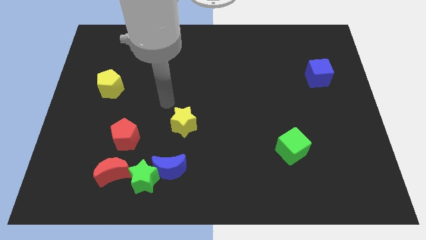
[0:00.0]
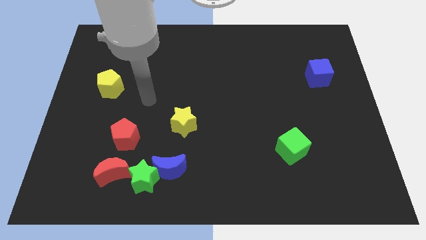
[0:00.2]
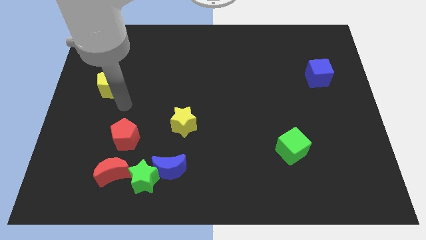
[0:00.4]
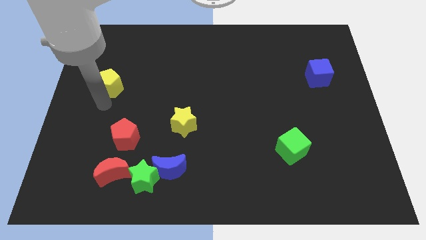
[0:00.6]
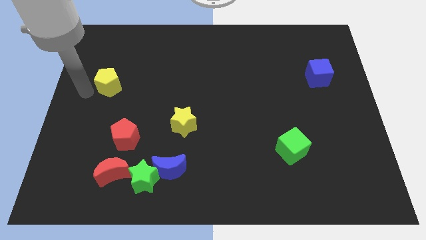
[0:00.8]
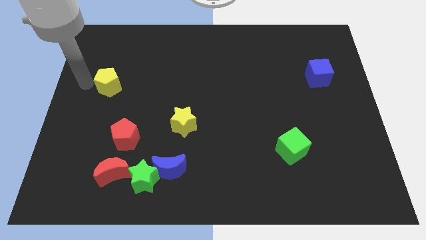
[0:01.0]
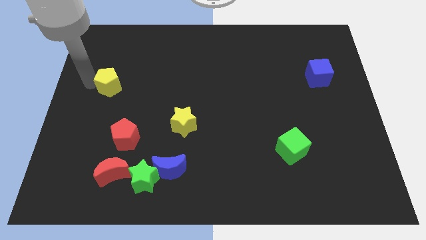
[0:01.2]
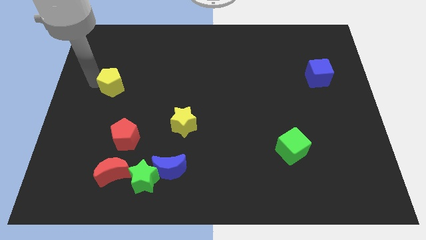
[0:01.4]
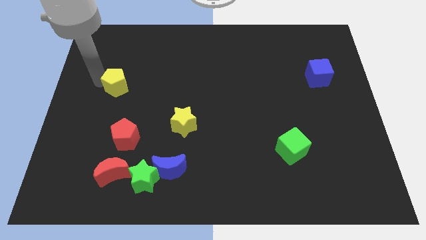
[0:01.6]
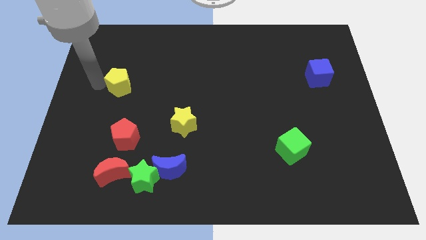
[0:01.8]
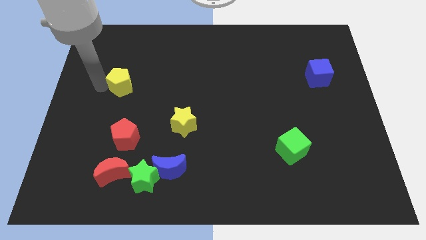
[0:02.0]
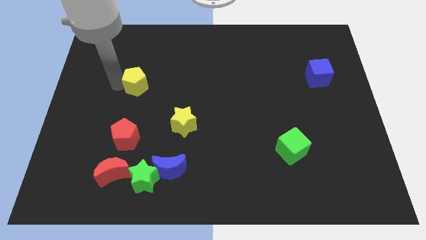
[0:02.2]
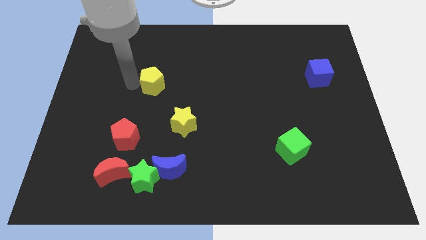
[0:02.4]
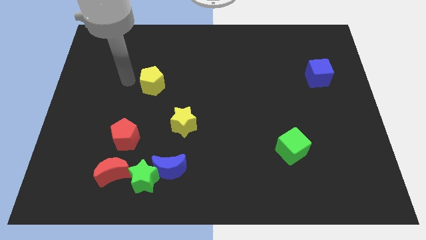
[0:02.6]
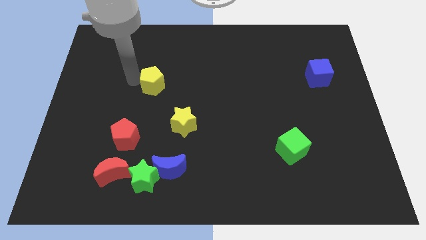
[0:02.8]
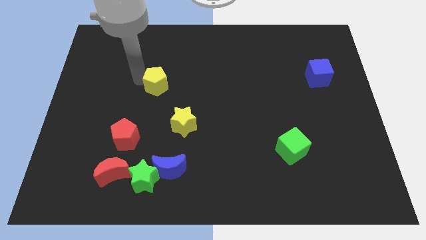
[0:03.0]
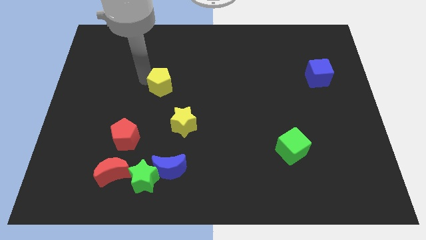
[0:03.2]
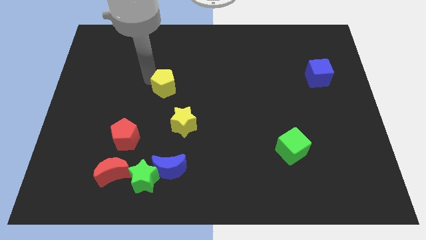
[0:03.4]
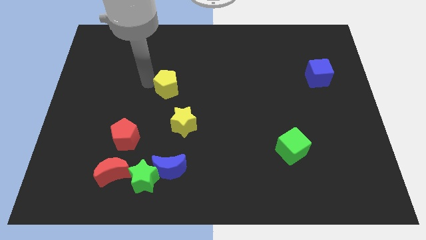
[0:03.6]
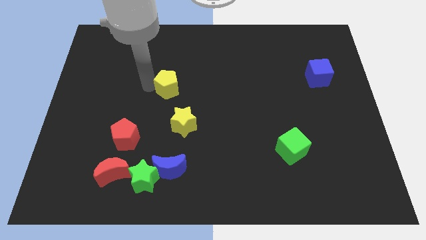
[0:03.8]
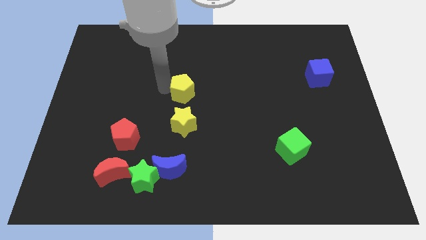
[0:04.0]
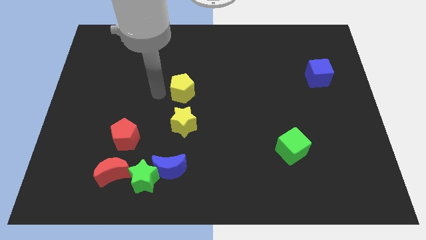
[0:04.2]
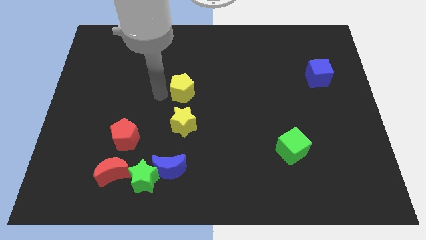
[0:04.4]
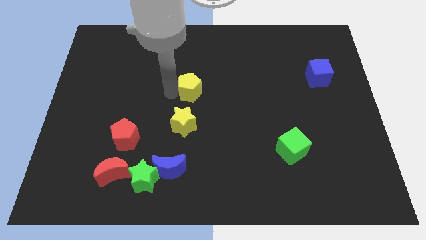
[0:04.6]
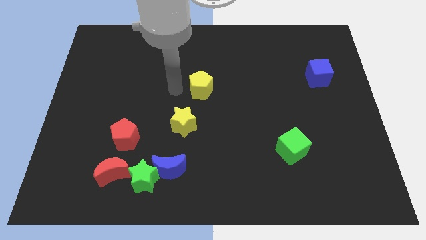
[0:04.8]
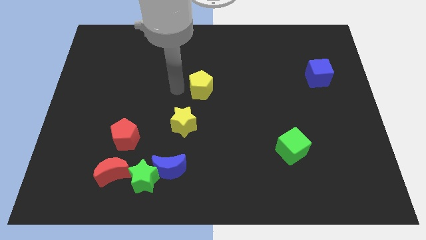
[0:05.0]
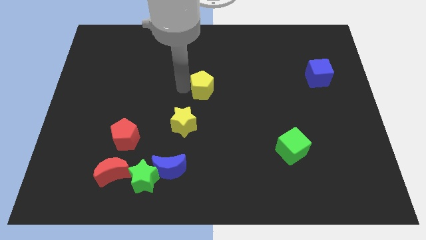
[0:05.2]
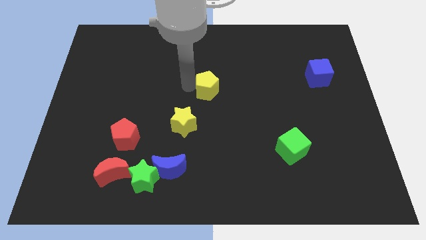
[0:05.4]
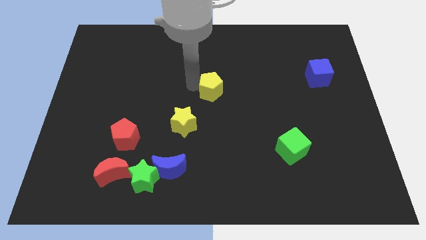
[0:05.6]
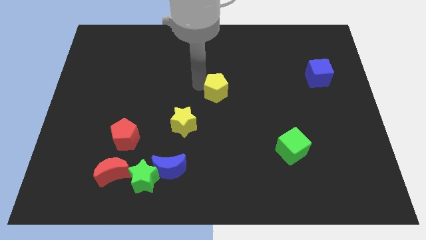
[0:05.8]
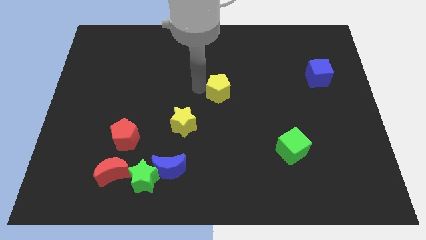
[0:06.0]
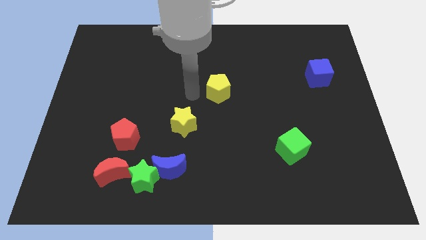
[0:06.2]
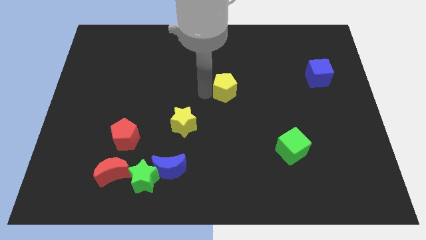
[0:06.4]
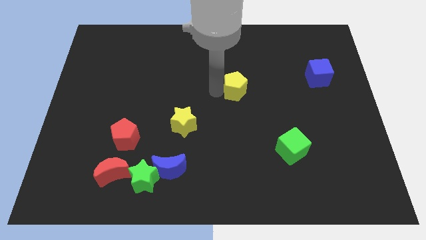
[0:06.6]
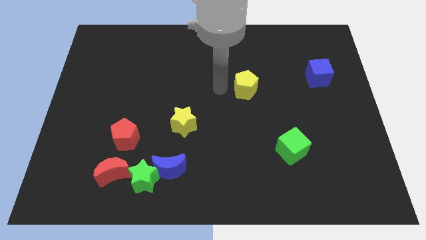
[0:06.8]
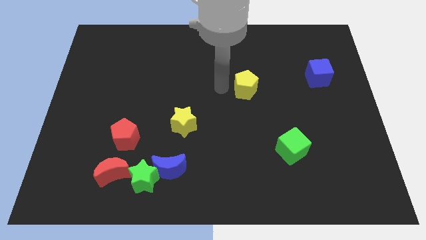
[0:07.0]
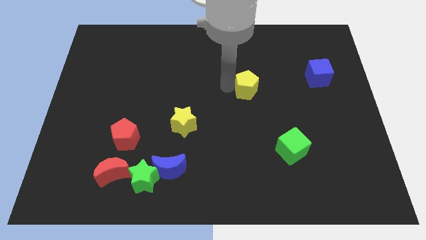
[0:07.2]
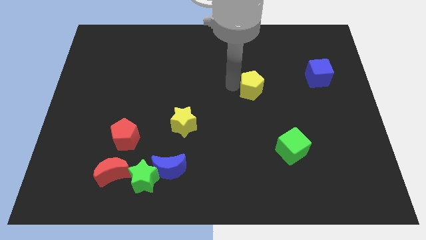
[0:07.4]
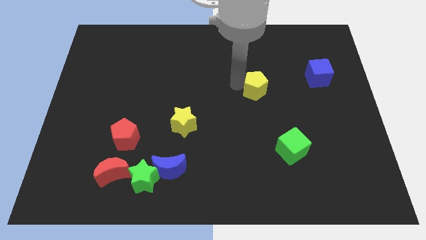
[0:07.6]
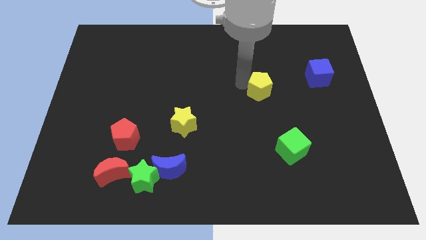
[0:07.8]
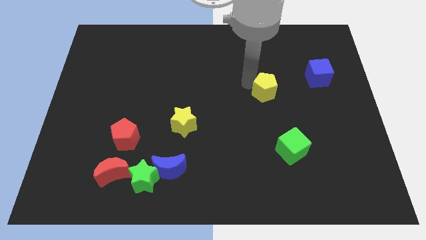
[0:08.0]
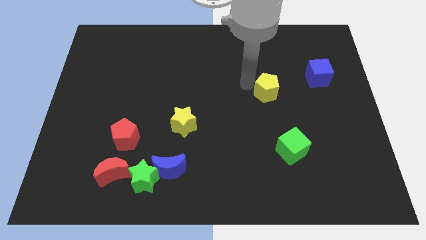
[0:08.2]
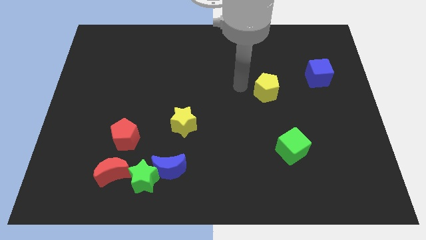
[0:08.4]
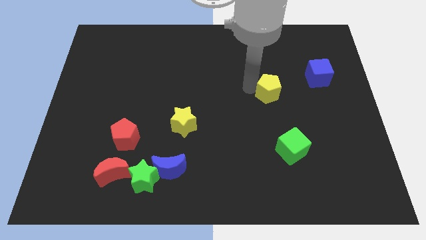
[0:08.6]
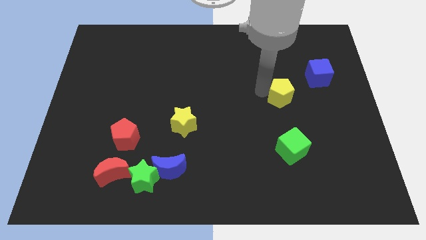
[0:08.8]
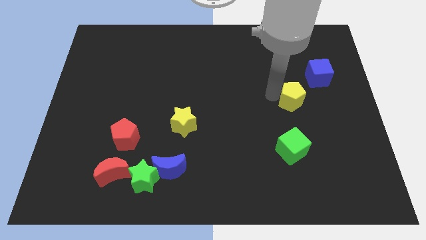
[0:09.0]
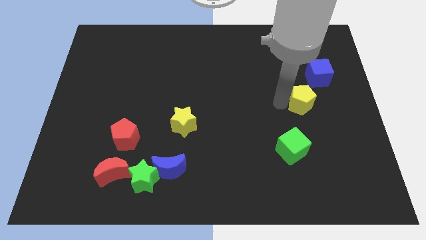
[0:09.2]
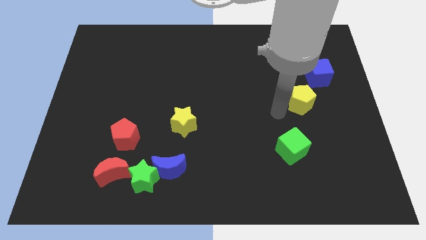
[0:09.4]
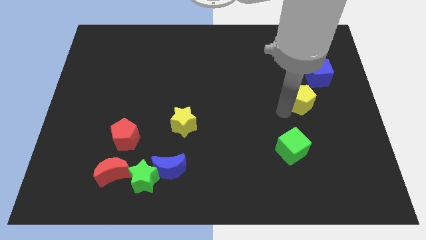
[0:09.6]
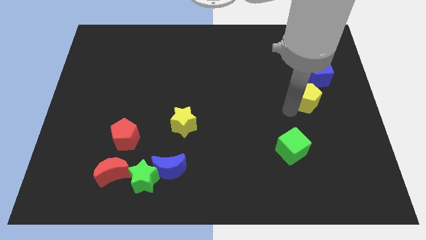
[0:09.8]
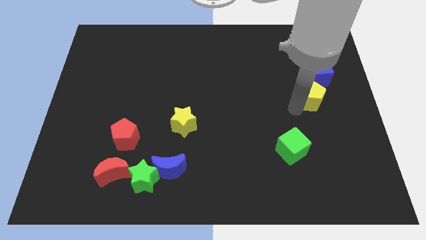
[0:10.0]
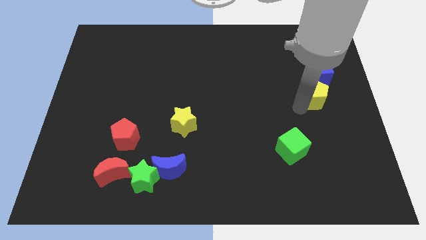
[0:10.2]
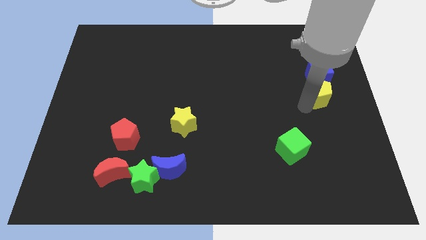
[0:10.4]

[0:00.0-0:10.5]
slide the yellow pentagon to the right side of the board

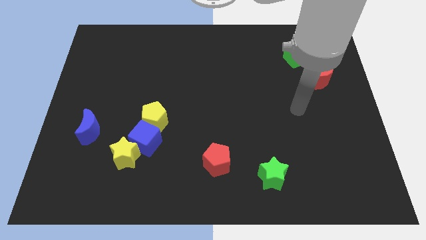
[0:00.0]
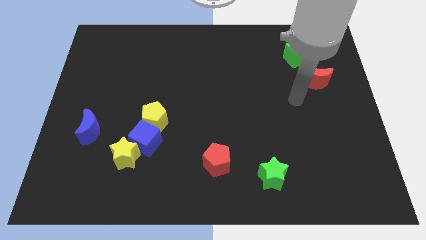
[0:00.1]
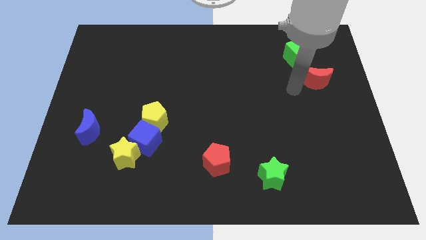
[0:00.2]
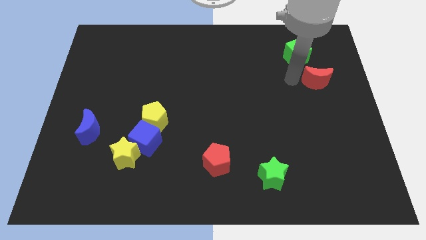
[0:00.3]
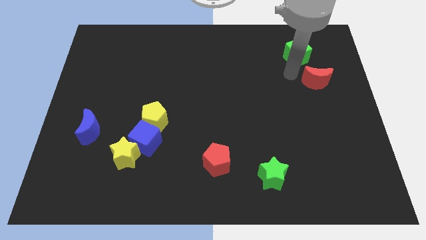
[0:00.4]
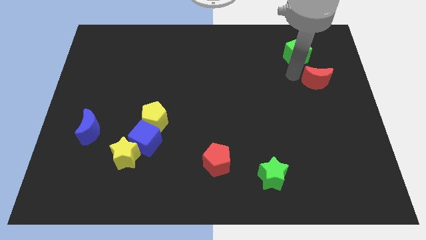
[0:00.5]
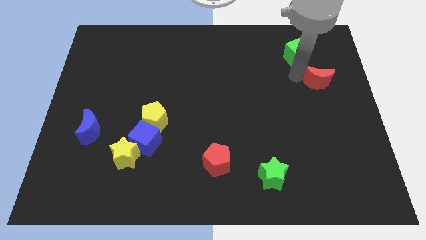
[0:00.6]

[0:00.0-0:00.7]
push the red moon to the right side
